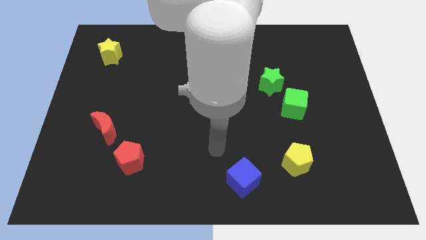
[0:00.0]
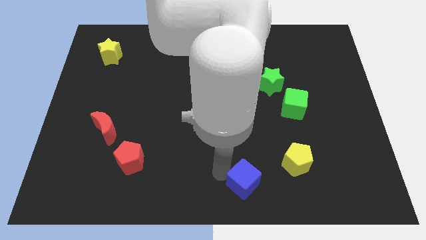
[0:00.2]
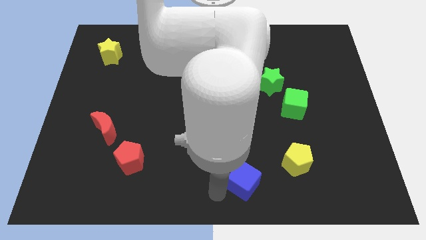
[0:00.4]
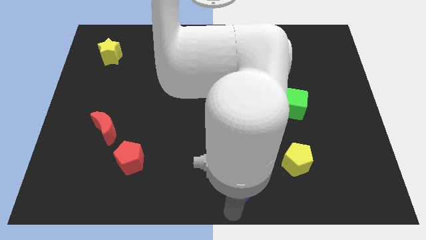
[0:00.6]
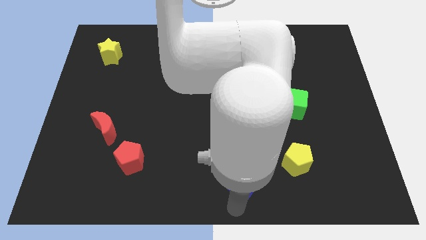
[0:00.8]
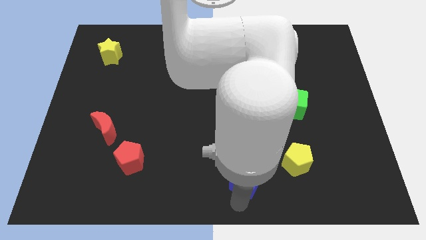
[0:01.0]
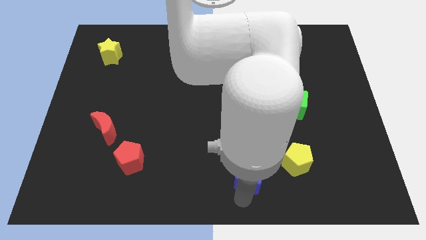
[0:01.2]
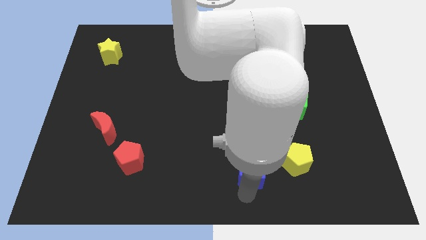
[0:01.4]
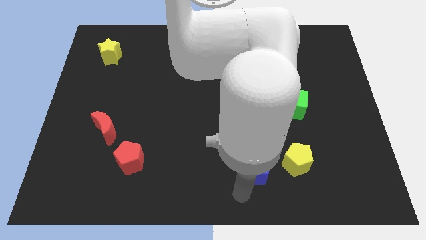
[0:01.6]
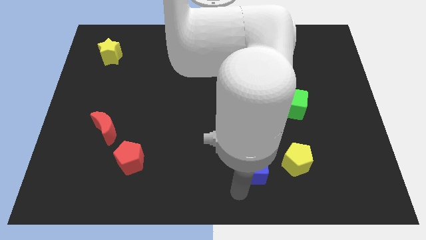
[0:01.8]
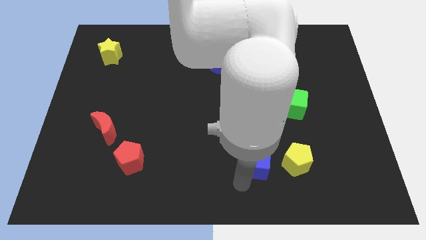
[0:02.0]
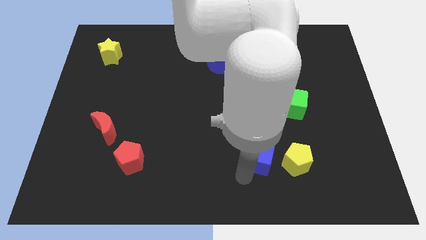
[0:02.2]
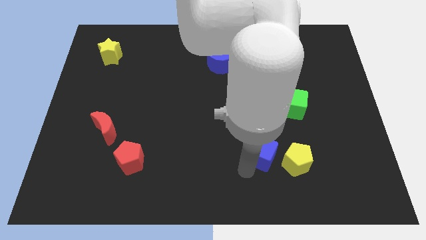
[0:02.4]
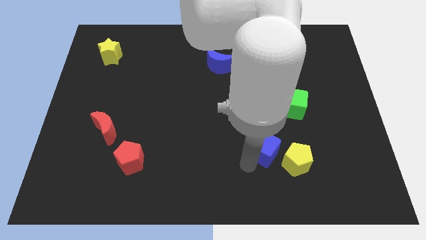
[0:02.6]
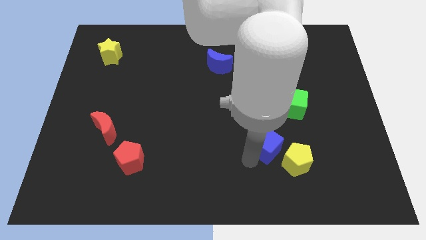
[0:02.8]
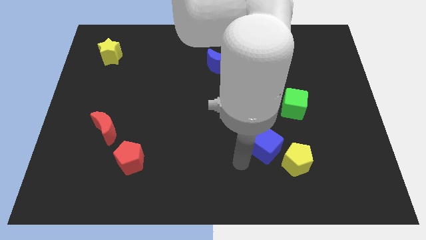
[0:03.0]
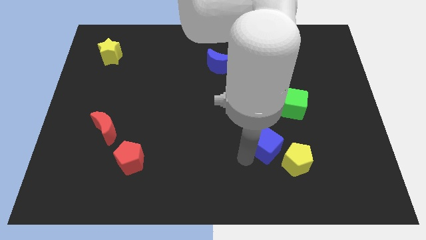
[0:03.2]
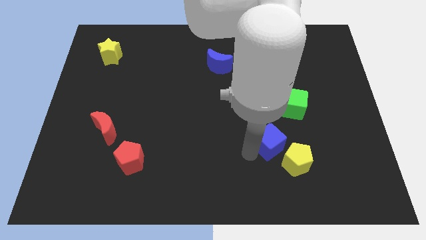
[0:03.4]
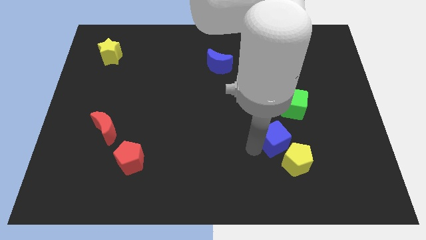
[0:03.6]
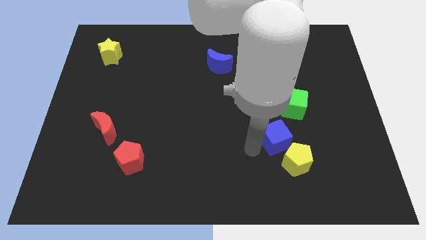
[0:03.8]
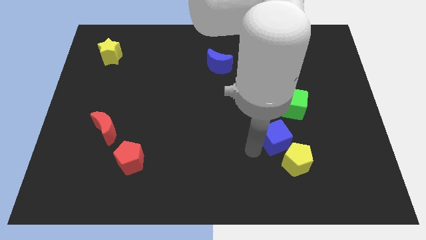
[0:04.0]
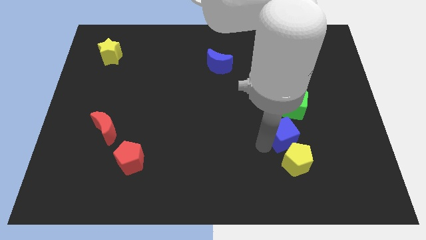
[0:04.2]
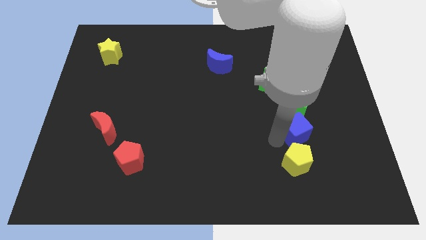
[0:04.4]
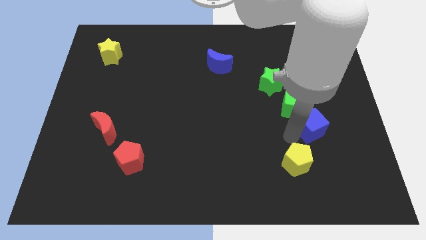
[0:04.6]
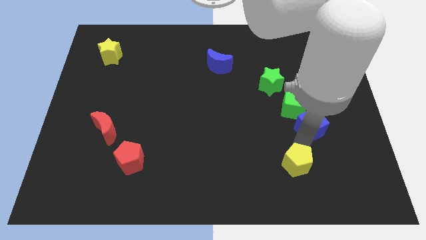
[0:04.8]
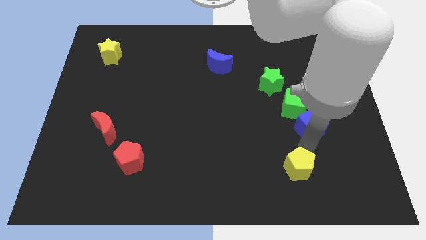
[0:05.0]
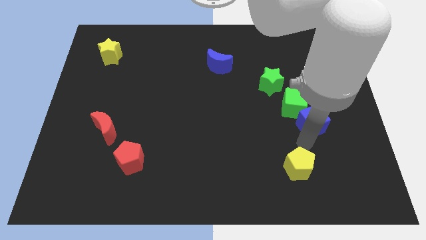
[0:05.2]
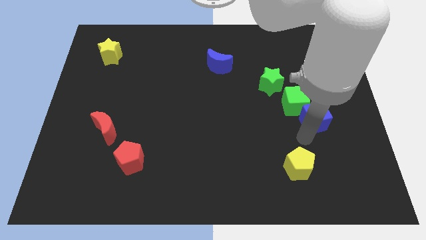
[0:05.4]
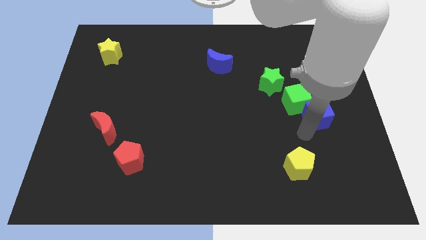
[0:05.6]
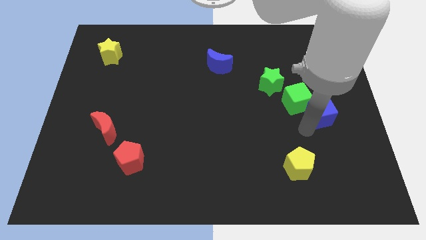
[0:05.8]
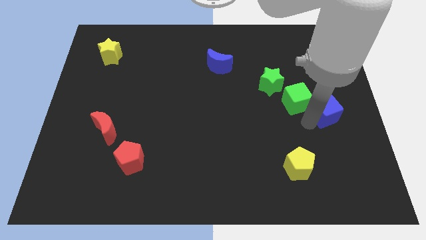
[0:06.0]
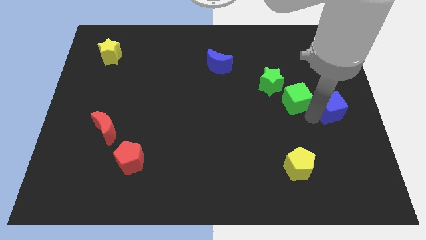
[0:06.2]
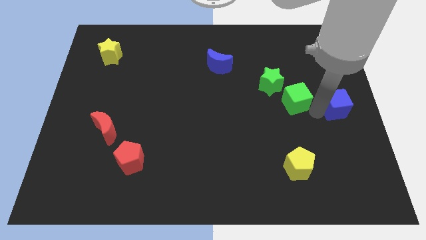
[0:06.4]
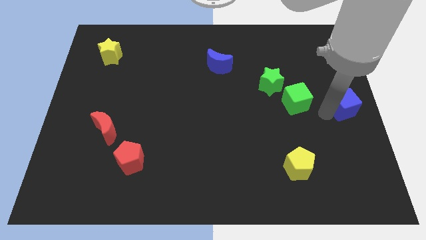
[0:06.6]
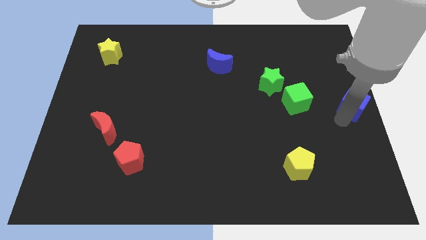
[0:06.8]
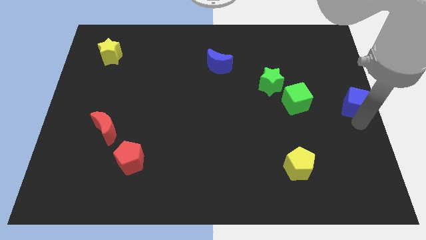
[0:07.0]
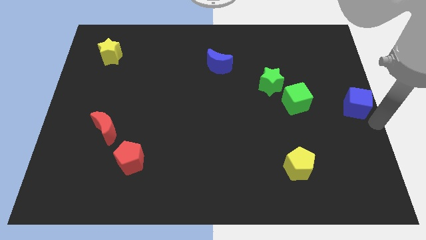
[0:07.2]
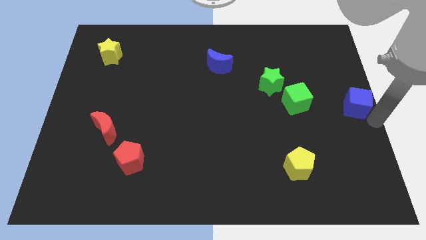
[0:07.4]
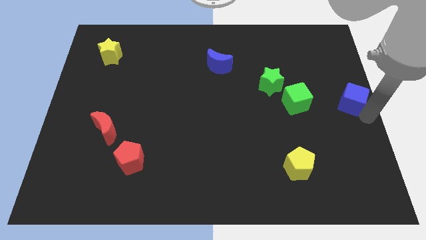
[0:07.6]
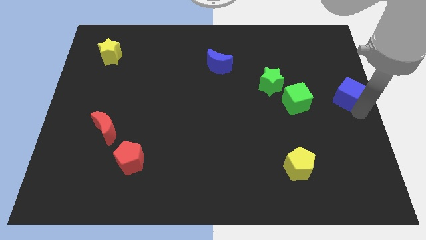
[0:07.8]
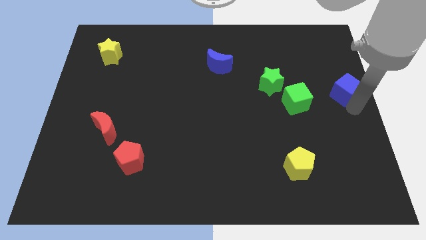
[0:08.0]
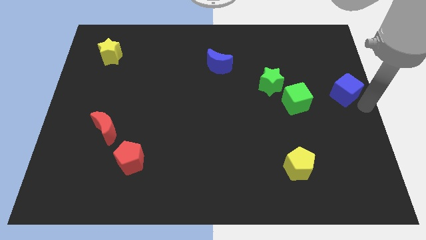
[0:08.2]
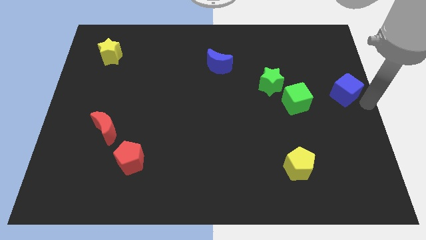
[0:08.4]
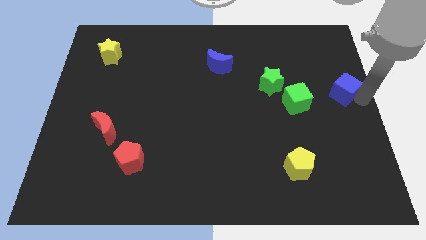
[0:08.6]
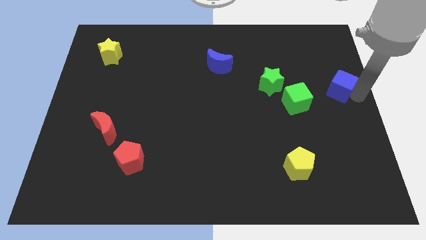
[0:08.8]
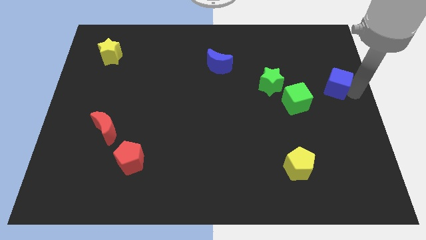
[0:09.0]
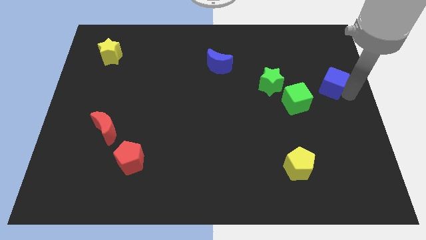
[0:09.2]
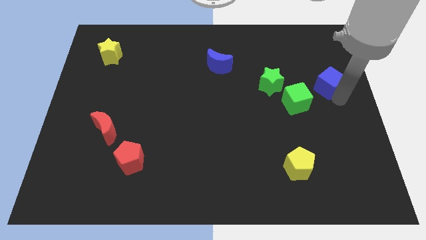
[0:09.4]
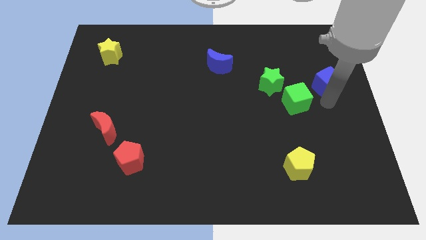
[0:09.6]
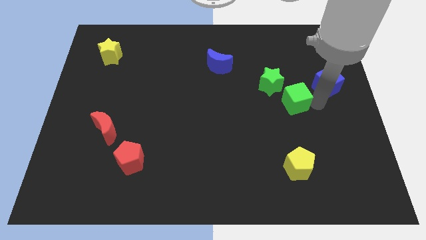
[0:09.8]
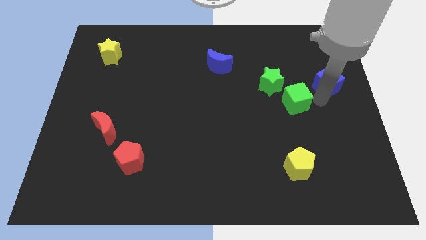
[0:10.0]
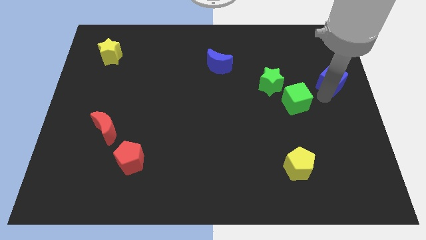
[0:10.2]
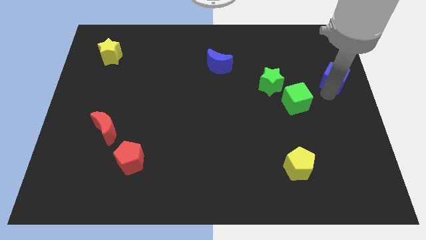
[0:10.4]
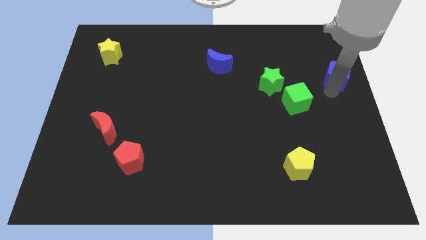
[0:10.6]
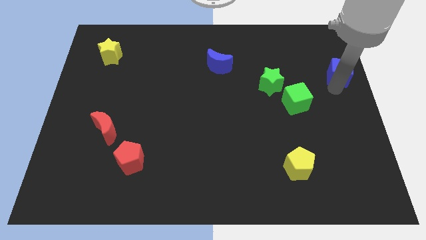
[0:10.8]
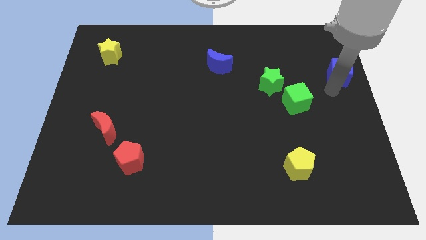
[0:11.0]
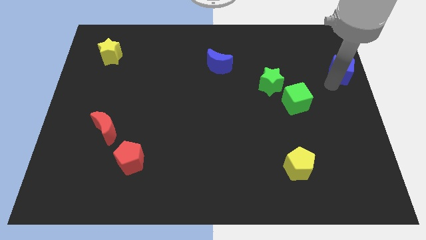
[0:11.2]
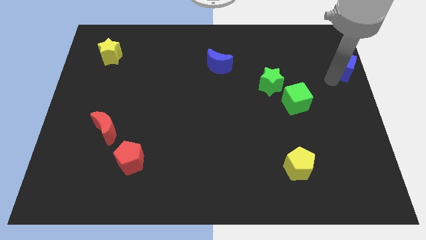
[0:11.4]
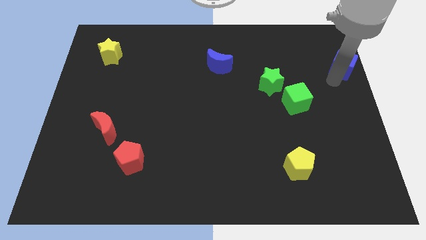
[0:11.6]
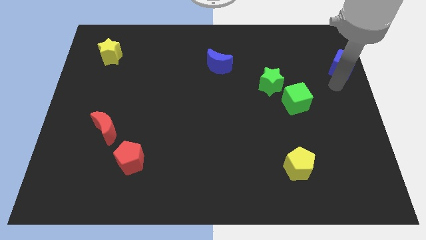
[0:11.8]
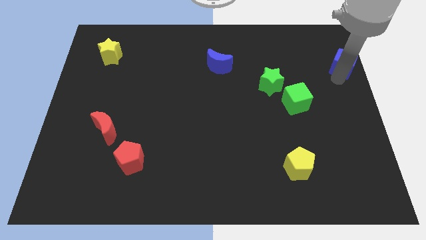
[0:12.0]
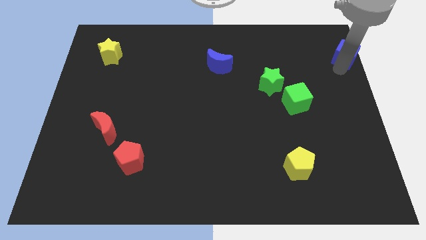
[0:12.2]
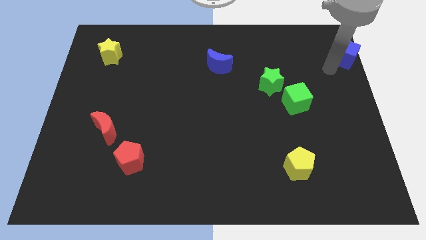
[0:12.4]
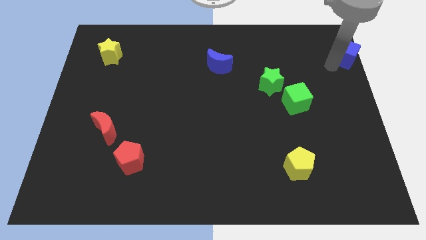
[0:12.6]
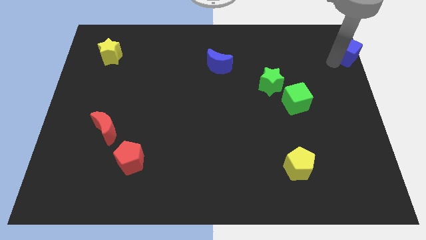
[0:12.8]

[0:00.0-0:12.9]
put the blue cube to the top right corner
